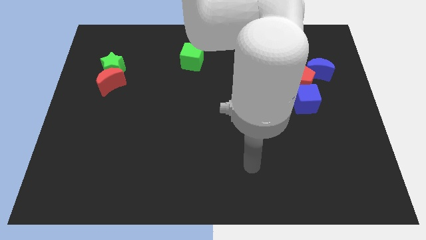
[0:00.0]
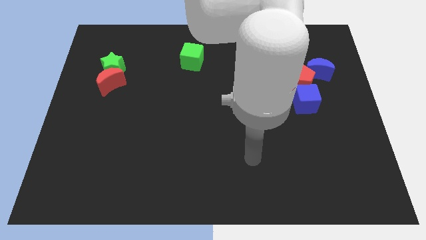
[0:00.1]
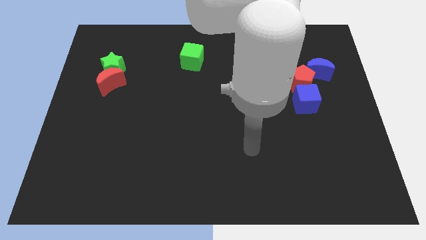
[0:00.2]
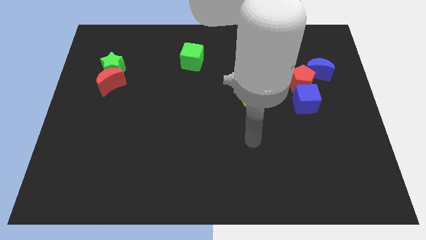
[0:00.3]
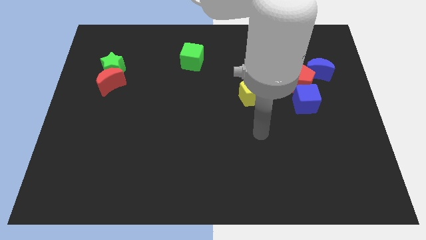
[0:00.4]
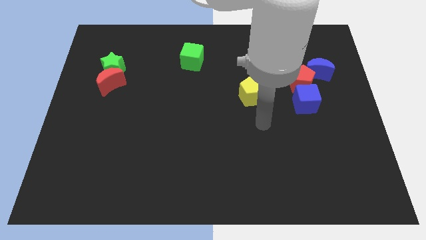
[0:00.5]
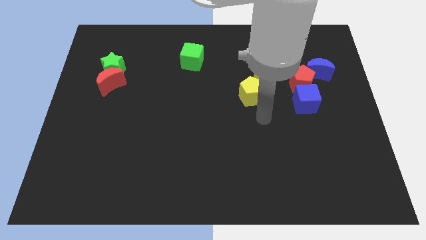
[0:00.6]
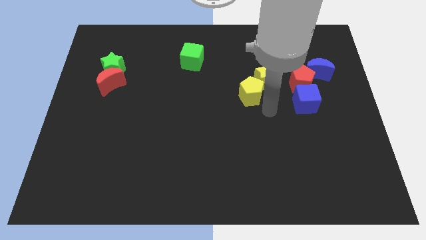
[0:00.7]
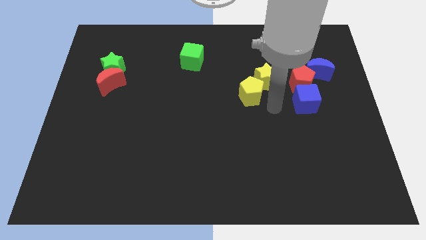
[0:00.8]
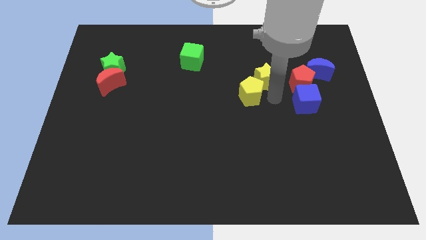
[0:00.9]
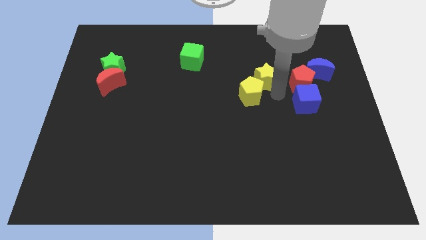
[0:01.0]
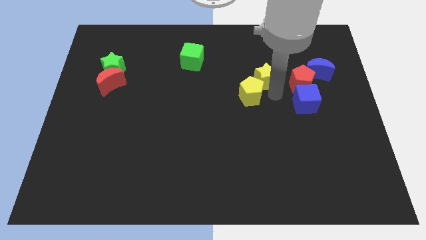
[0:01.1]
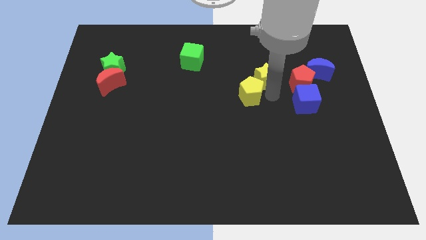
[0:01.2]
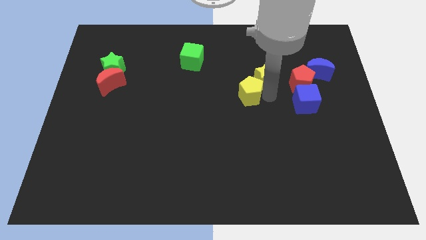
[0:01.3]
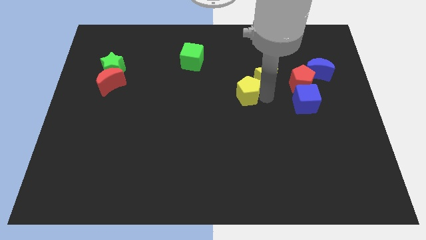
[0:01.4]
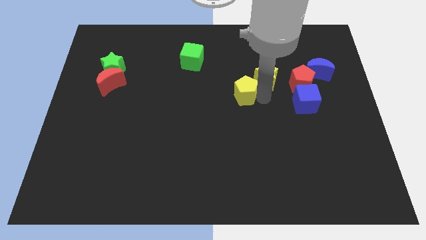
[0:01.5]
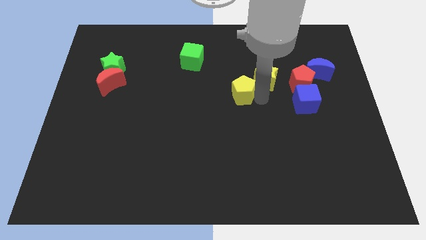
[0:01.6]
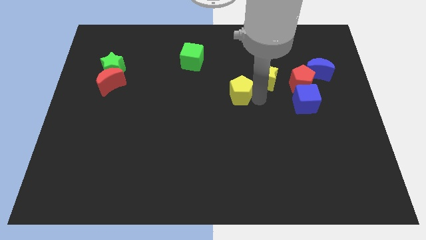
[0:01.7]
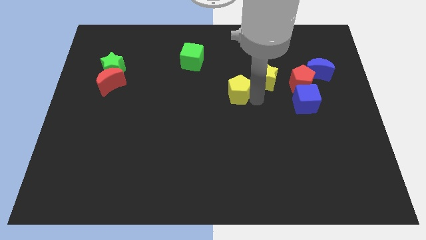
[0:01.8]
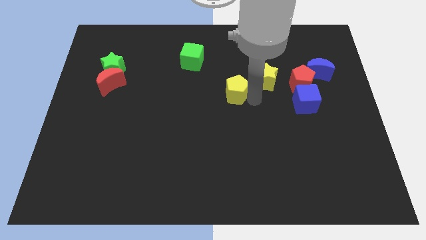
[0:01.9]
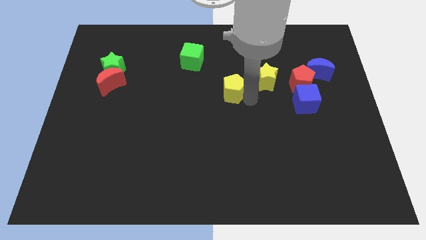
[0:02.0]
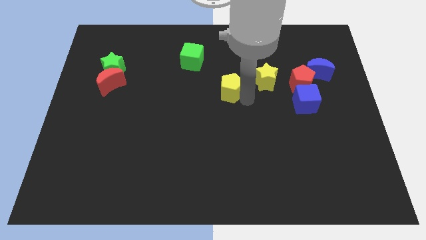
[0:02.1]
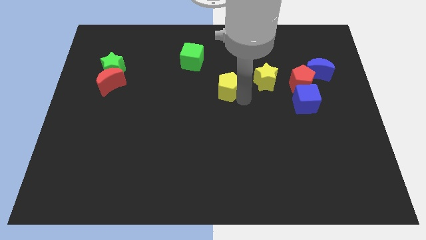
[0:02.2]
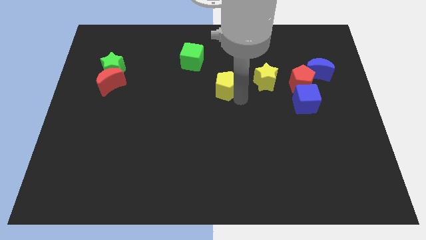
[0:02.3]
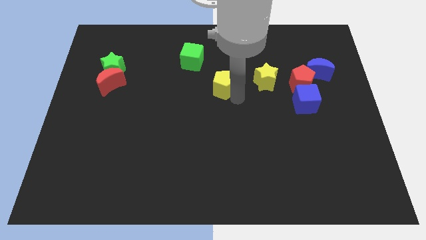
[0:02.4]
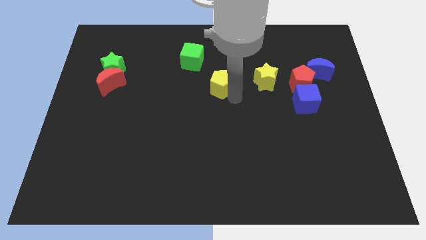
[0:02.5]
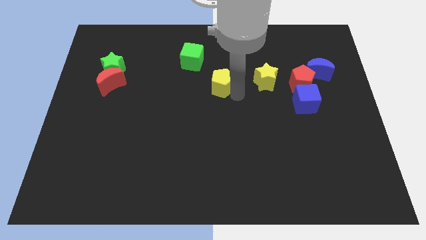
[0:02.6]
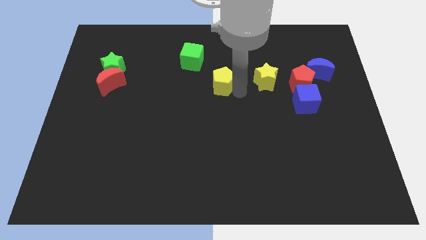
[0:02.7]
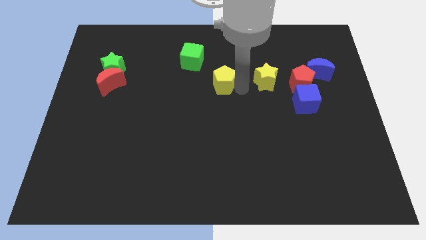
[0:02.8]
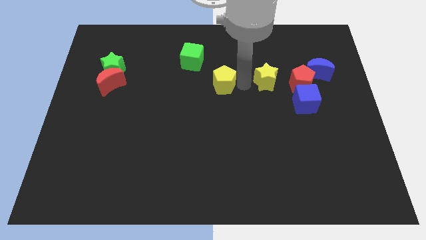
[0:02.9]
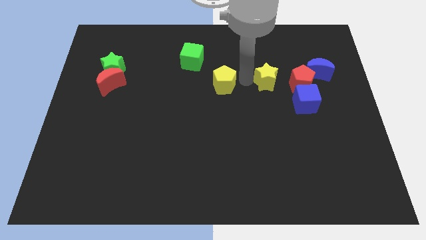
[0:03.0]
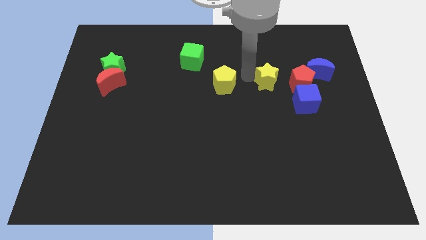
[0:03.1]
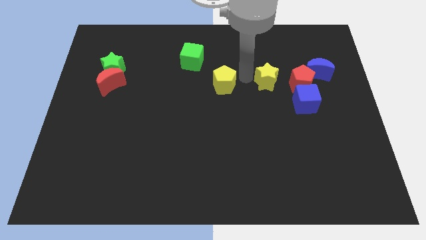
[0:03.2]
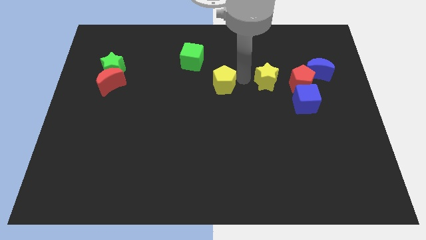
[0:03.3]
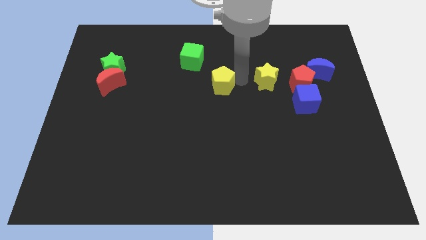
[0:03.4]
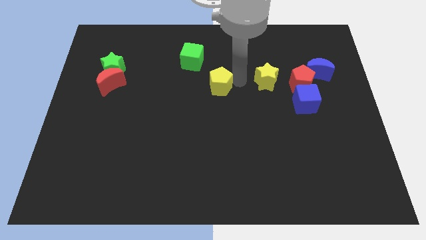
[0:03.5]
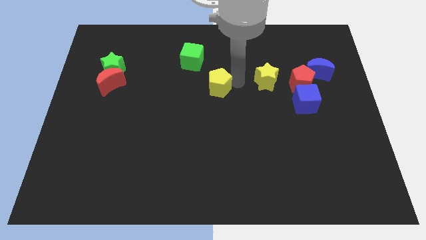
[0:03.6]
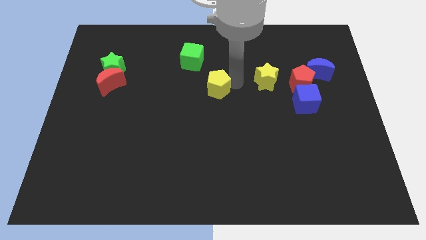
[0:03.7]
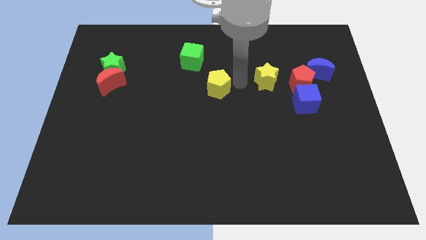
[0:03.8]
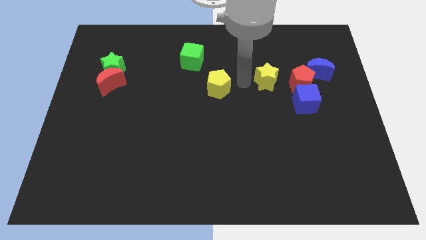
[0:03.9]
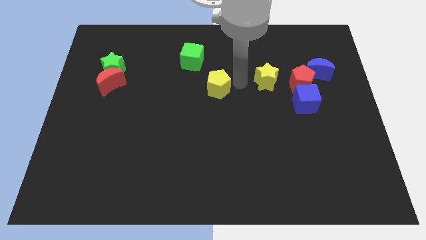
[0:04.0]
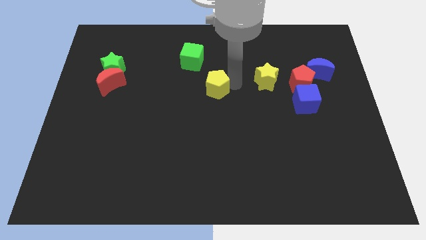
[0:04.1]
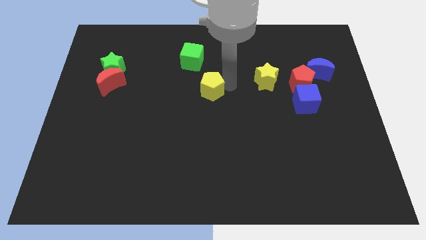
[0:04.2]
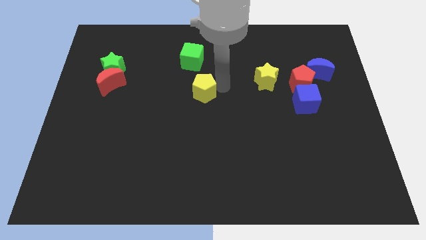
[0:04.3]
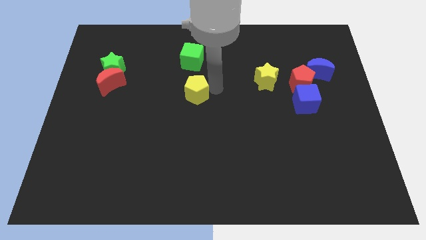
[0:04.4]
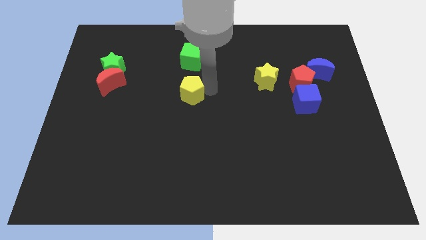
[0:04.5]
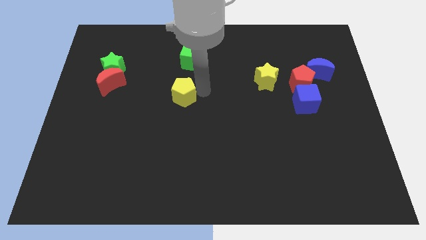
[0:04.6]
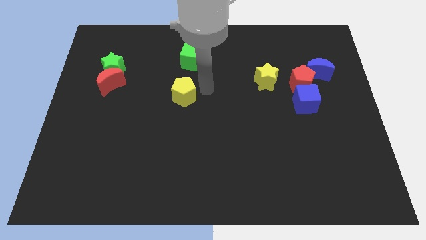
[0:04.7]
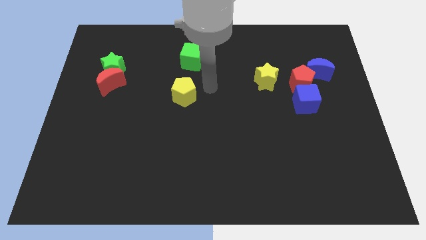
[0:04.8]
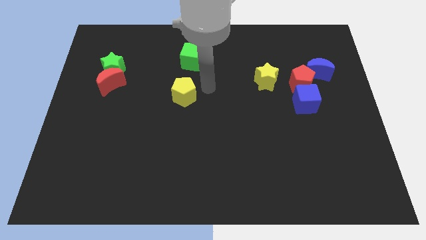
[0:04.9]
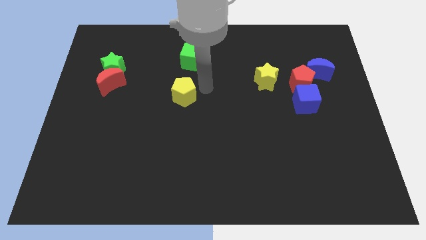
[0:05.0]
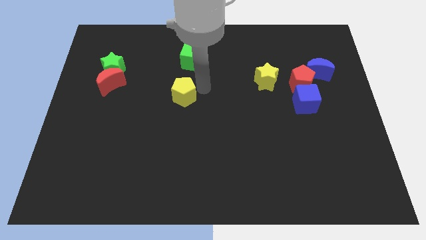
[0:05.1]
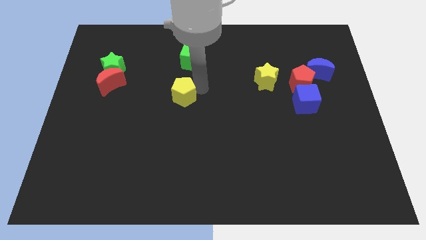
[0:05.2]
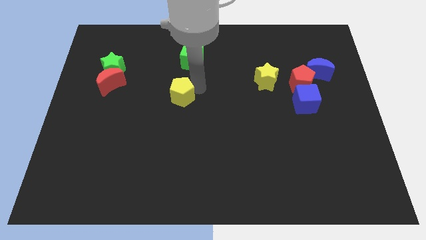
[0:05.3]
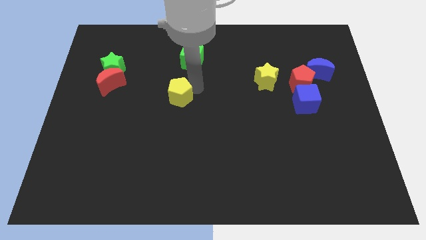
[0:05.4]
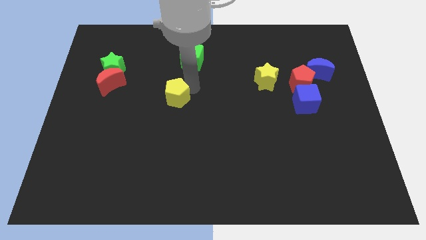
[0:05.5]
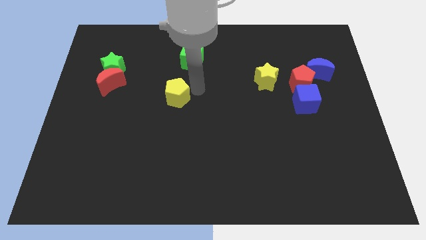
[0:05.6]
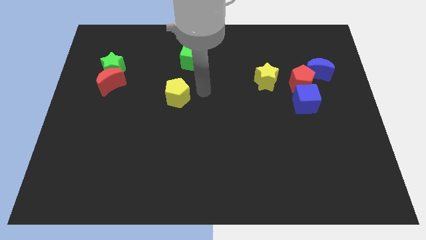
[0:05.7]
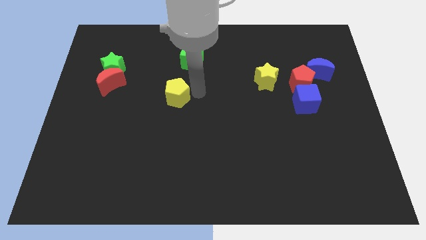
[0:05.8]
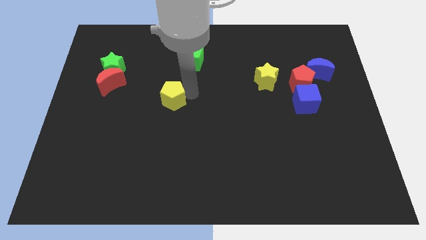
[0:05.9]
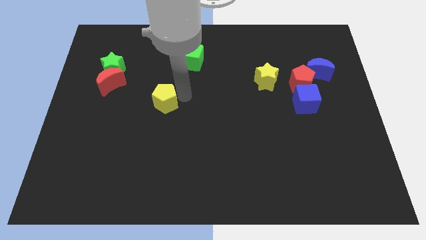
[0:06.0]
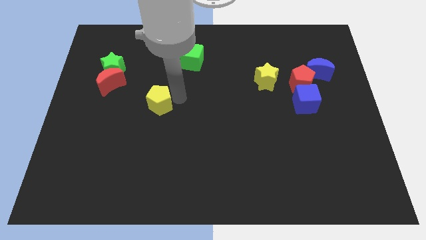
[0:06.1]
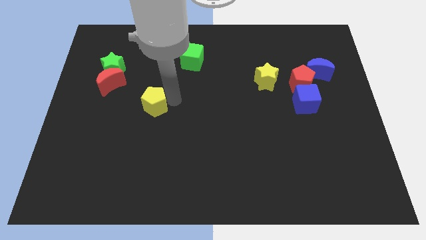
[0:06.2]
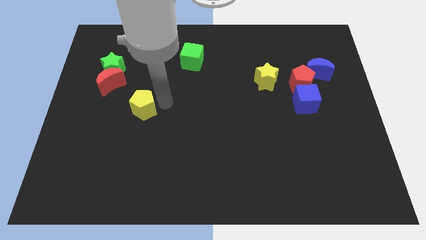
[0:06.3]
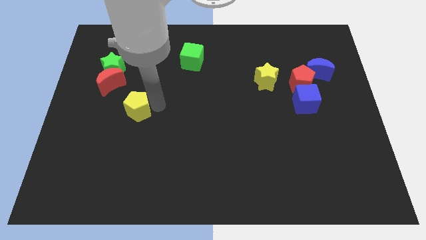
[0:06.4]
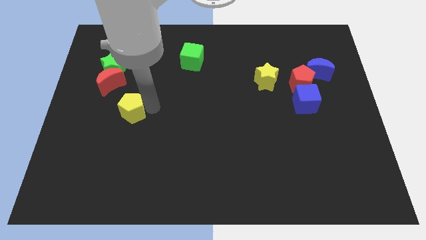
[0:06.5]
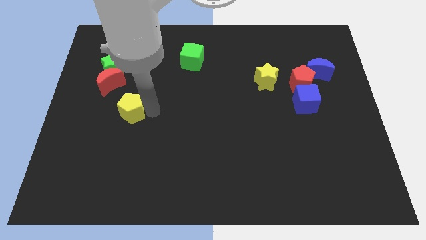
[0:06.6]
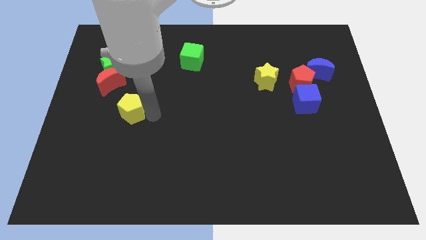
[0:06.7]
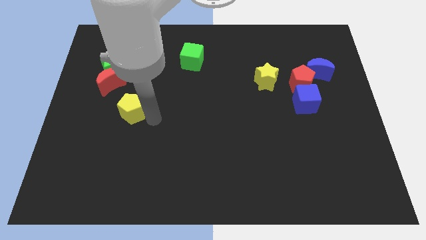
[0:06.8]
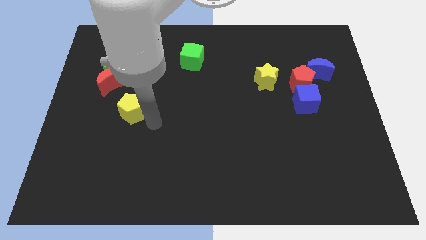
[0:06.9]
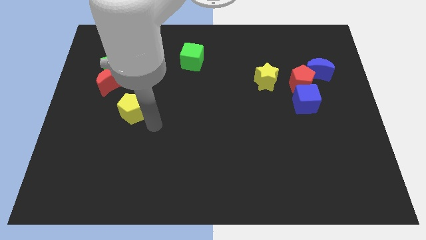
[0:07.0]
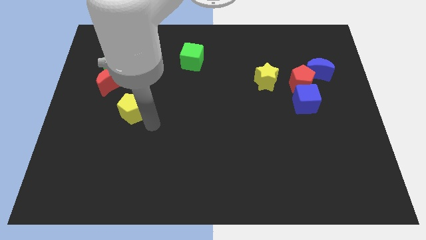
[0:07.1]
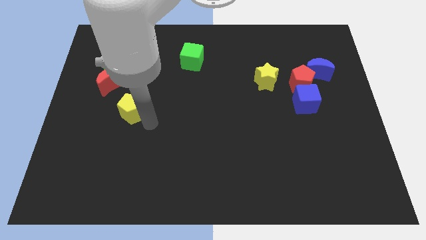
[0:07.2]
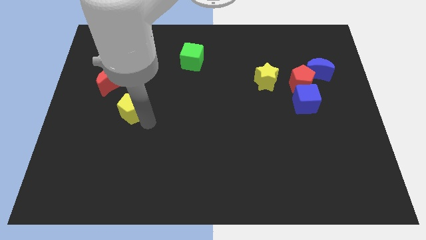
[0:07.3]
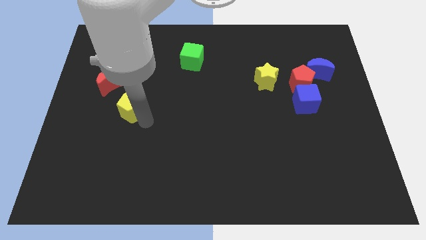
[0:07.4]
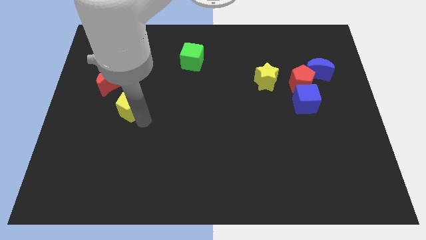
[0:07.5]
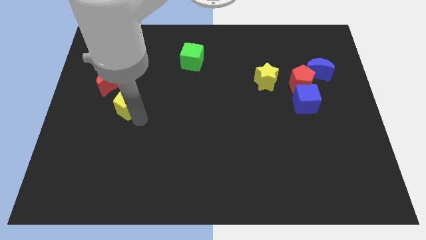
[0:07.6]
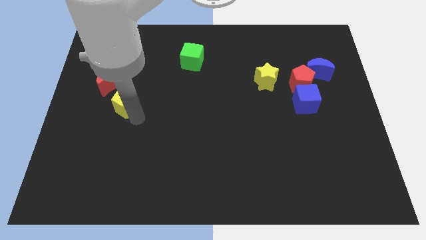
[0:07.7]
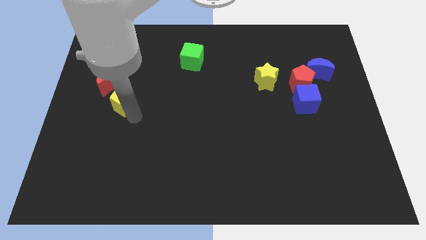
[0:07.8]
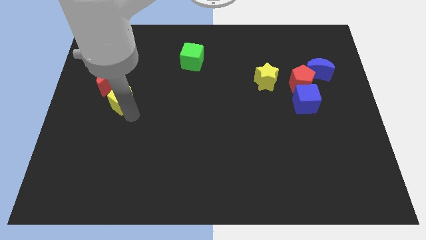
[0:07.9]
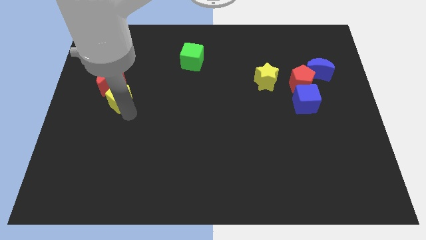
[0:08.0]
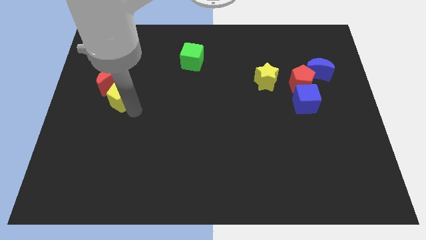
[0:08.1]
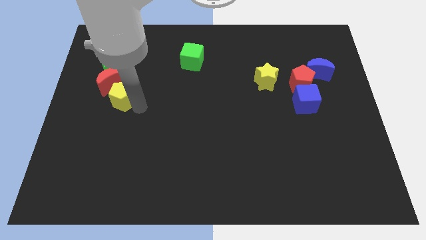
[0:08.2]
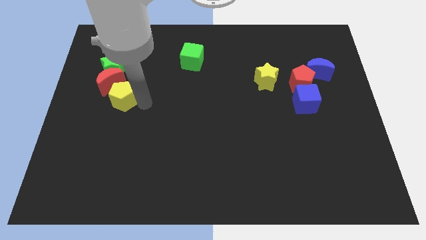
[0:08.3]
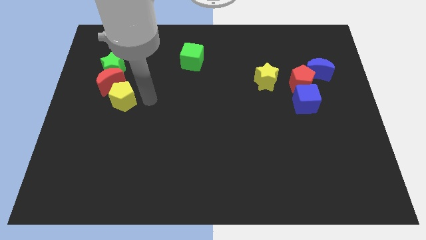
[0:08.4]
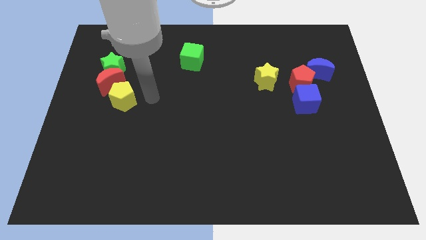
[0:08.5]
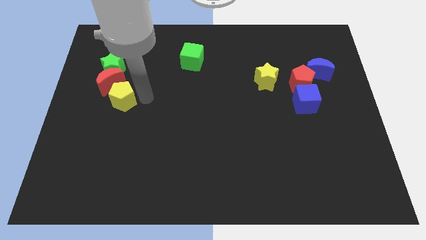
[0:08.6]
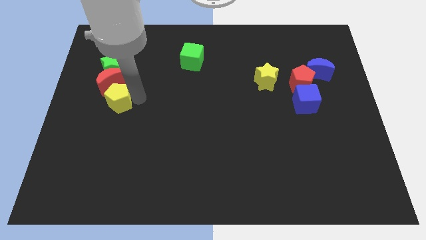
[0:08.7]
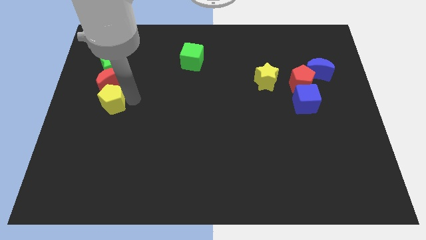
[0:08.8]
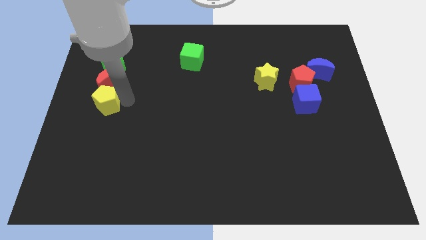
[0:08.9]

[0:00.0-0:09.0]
slide the yellow pentagon to the center left
